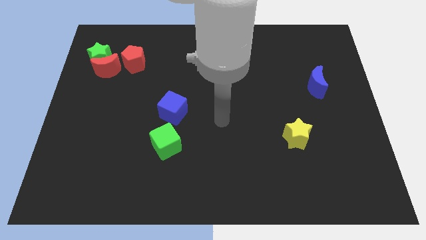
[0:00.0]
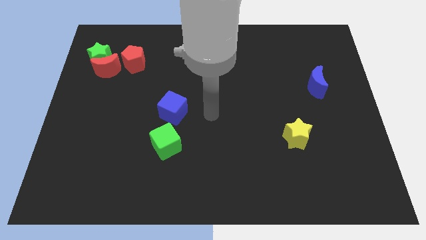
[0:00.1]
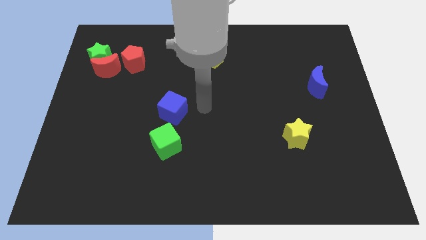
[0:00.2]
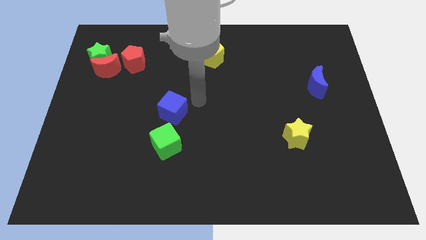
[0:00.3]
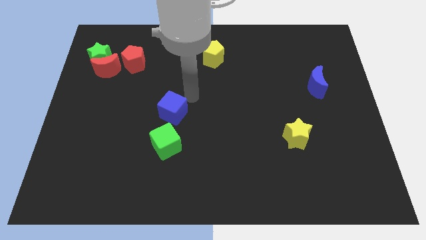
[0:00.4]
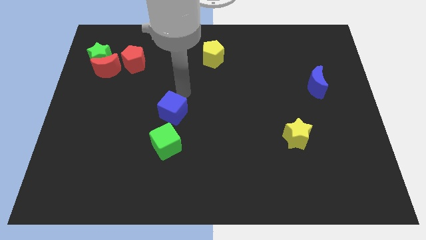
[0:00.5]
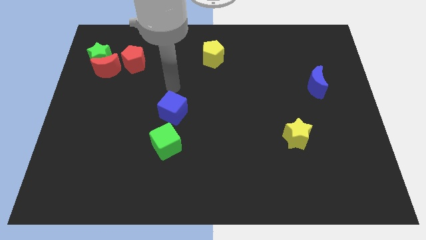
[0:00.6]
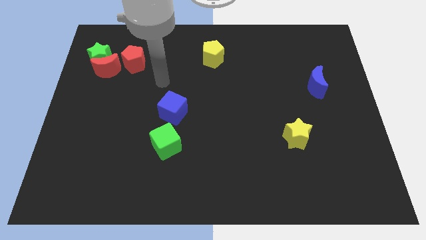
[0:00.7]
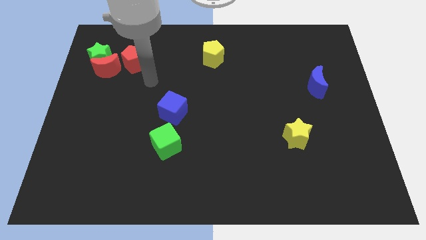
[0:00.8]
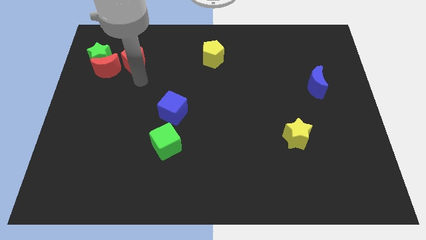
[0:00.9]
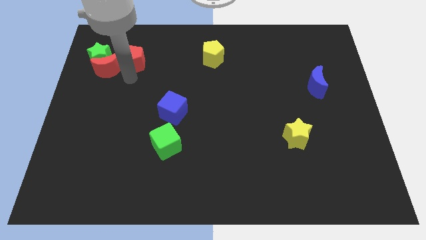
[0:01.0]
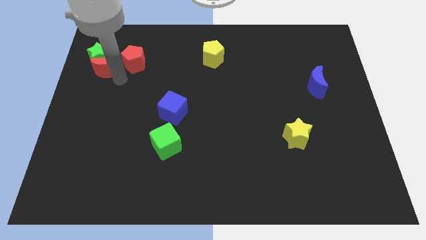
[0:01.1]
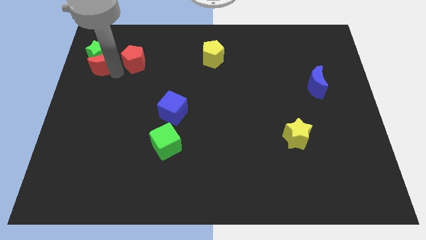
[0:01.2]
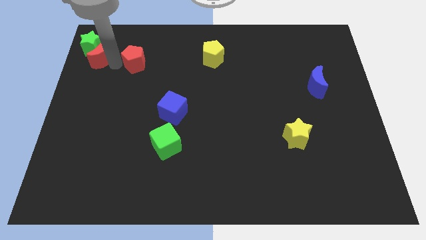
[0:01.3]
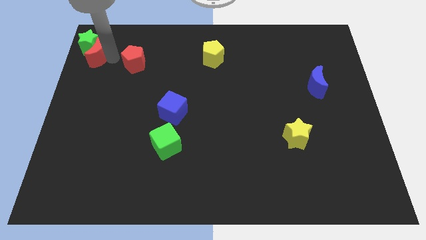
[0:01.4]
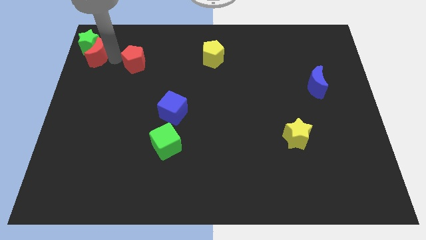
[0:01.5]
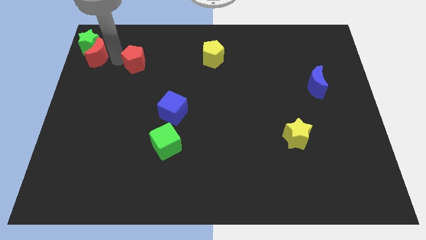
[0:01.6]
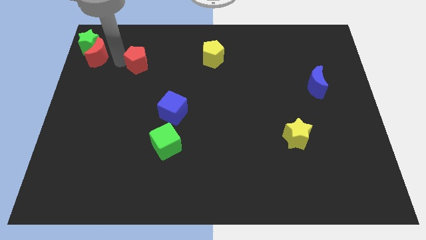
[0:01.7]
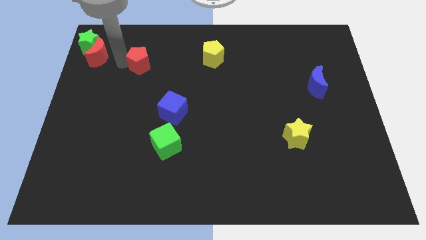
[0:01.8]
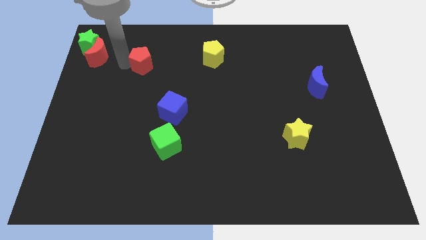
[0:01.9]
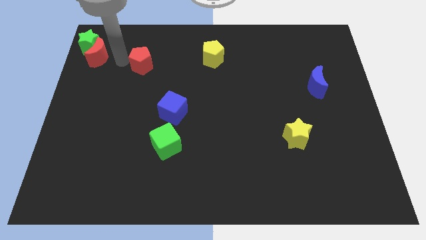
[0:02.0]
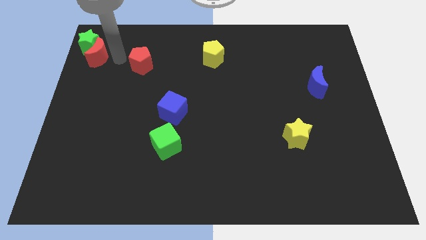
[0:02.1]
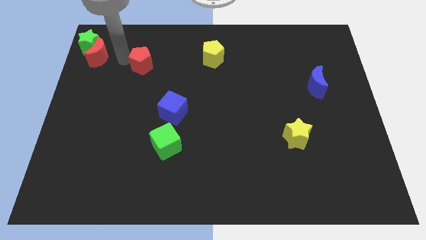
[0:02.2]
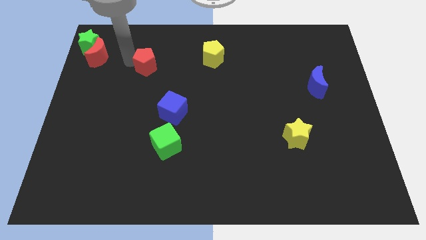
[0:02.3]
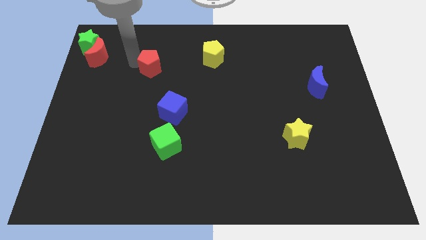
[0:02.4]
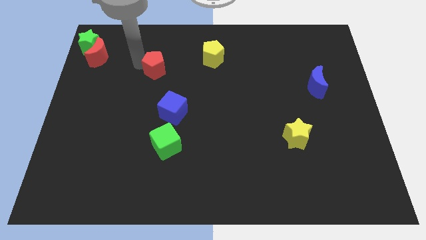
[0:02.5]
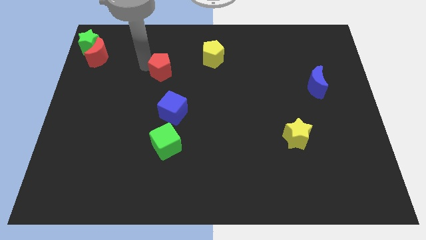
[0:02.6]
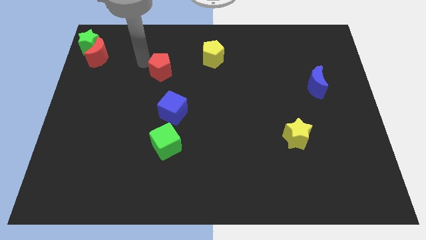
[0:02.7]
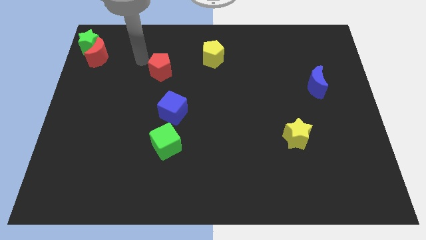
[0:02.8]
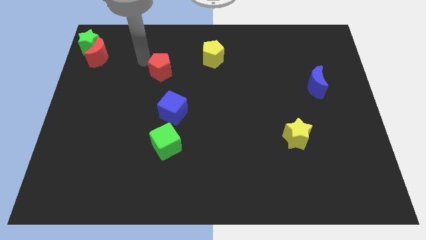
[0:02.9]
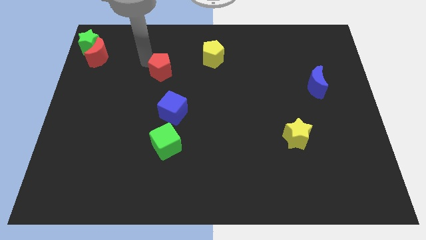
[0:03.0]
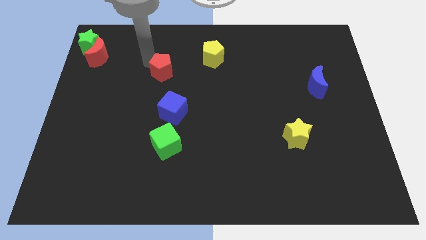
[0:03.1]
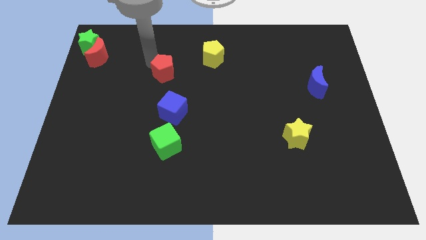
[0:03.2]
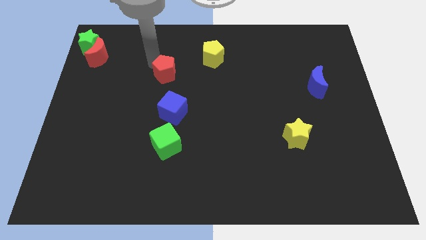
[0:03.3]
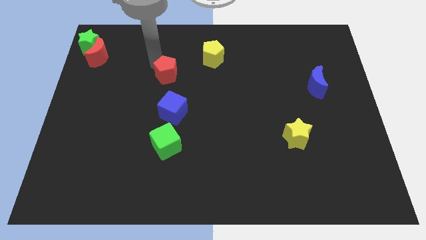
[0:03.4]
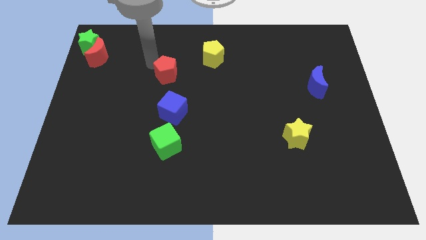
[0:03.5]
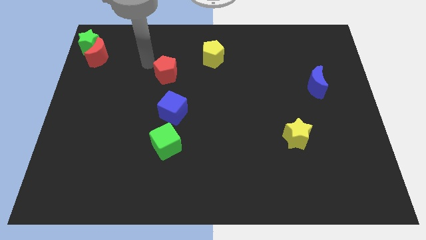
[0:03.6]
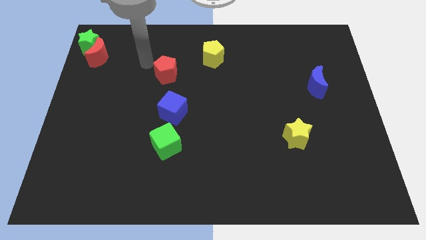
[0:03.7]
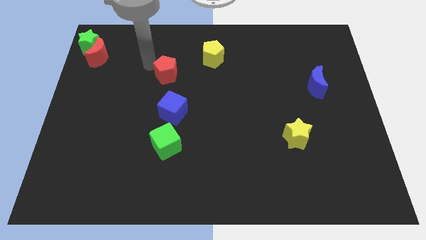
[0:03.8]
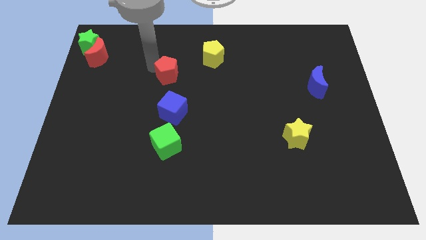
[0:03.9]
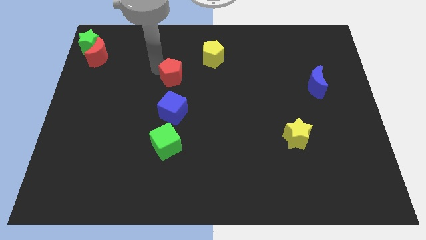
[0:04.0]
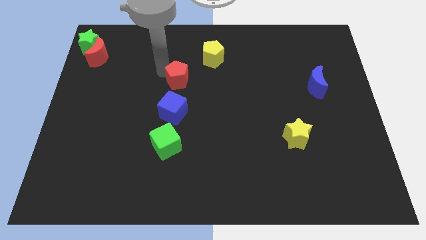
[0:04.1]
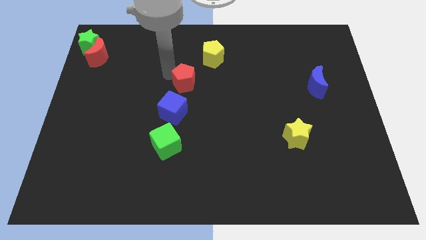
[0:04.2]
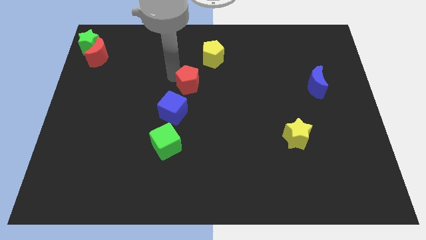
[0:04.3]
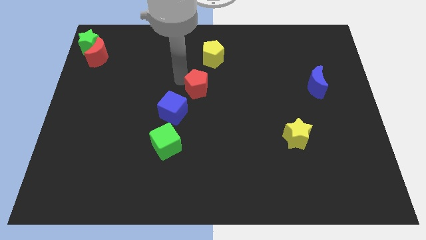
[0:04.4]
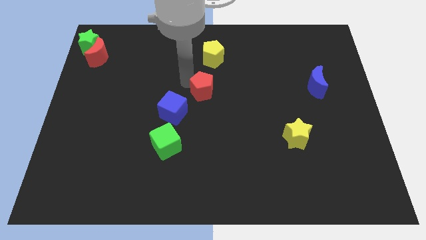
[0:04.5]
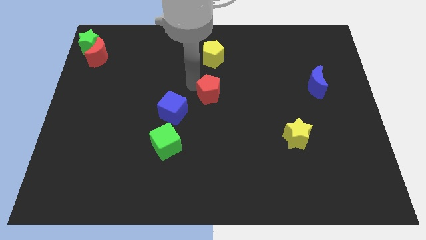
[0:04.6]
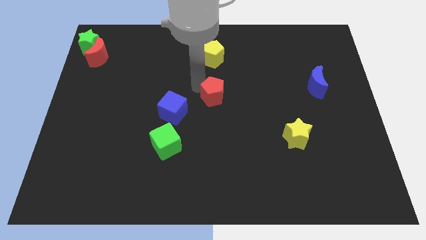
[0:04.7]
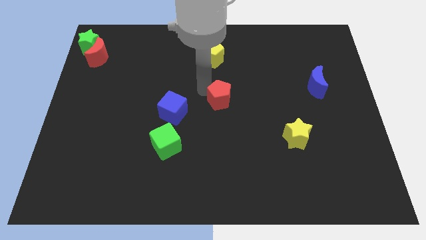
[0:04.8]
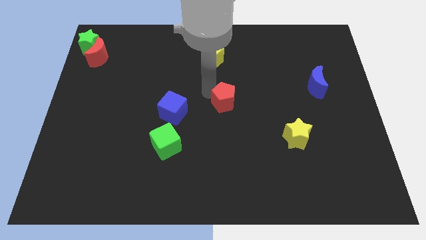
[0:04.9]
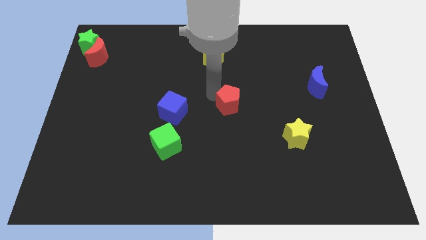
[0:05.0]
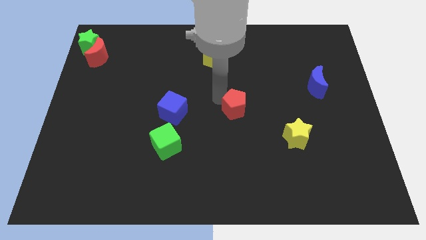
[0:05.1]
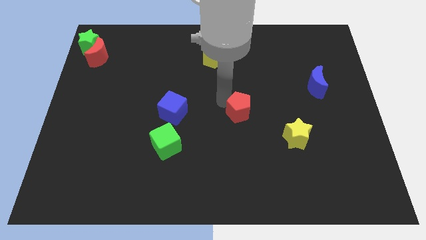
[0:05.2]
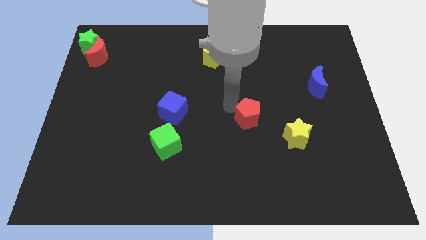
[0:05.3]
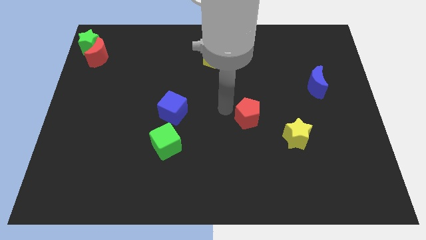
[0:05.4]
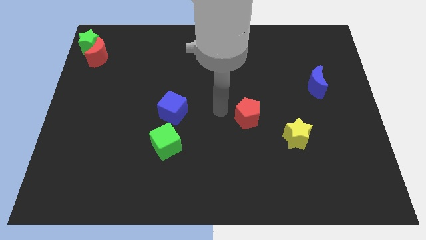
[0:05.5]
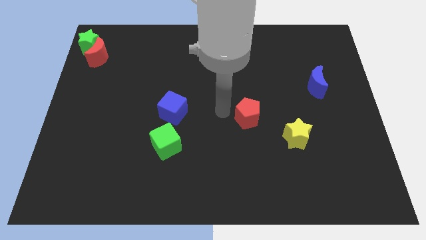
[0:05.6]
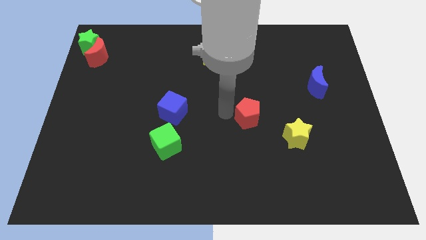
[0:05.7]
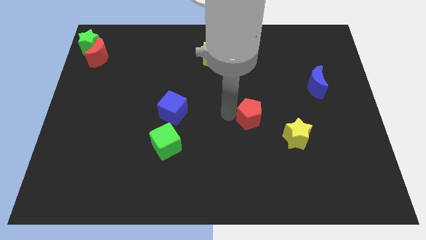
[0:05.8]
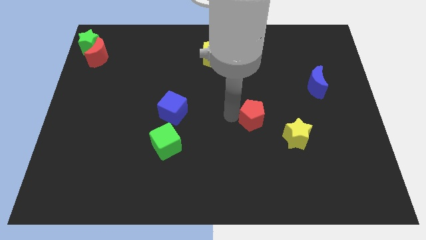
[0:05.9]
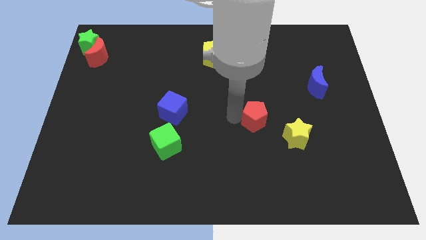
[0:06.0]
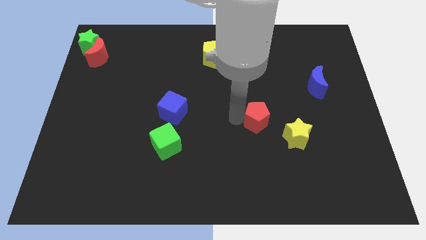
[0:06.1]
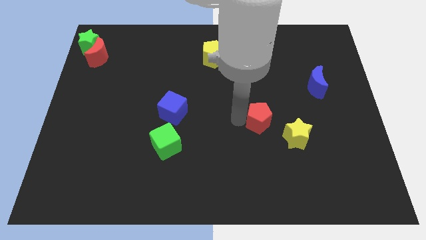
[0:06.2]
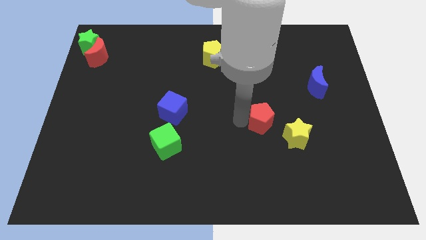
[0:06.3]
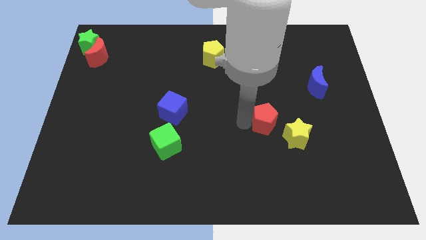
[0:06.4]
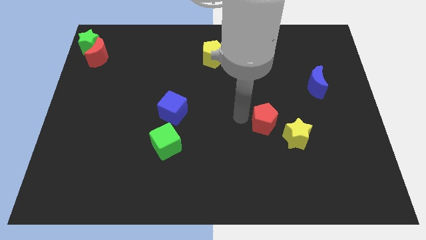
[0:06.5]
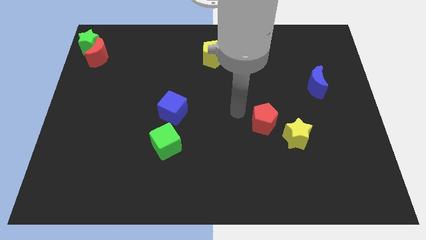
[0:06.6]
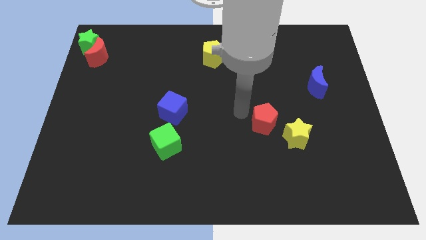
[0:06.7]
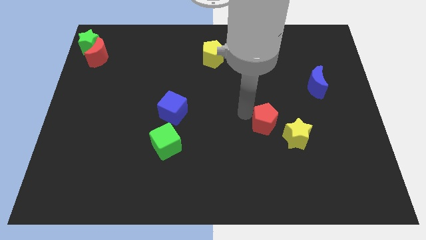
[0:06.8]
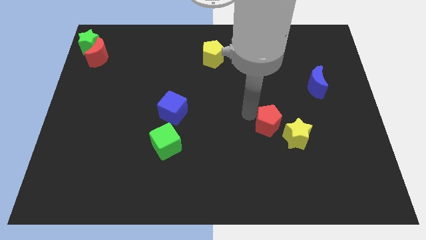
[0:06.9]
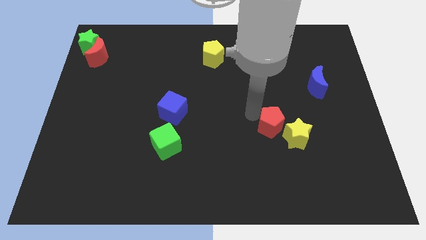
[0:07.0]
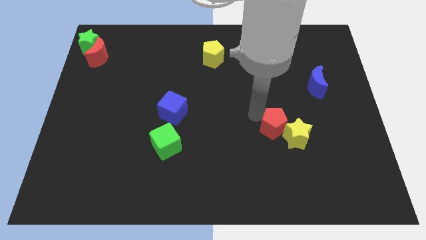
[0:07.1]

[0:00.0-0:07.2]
move the red pentagon to the yellow star
